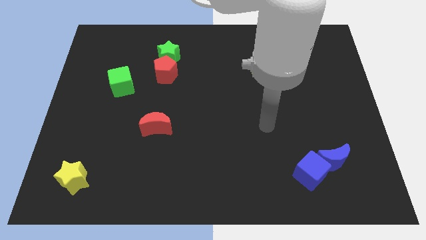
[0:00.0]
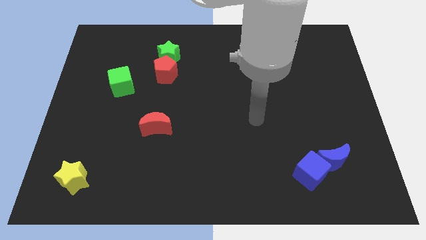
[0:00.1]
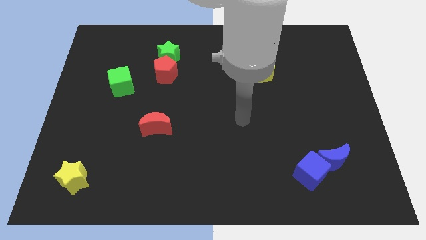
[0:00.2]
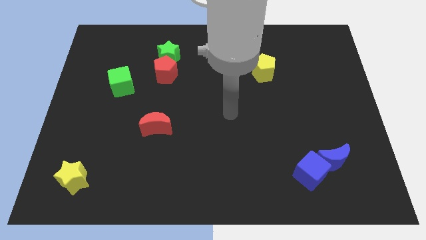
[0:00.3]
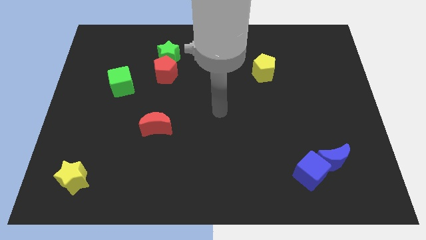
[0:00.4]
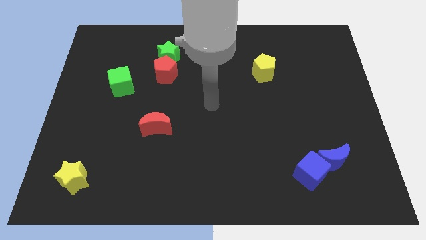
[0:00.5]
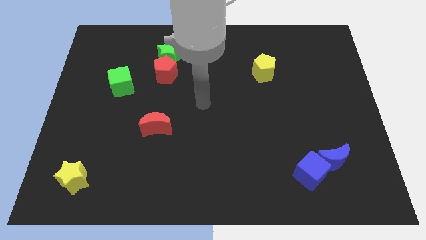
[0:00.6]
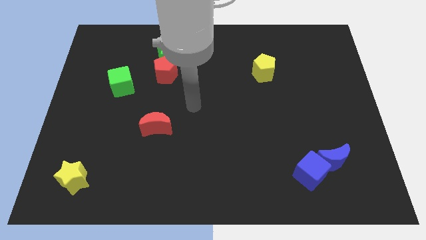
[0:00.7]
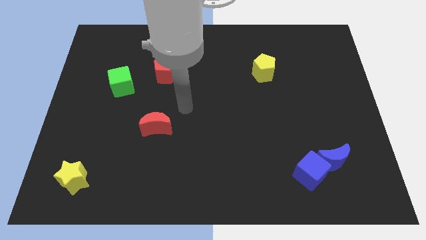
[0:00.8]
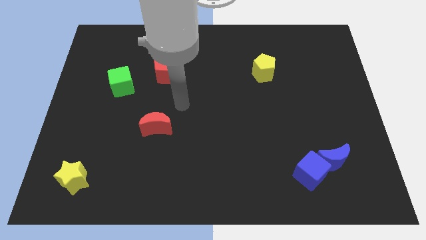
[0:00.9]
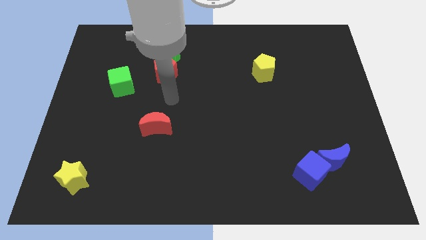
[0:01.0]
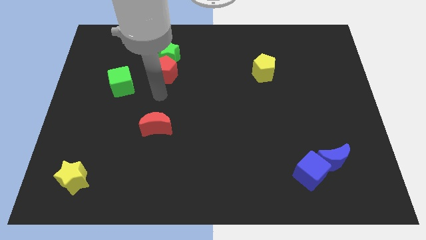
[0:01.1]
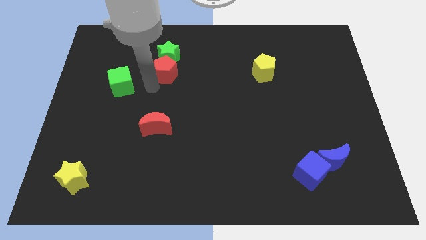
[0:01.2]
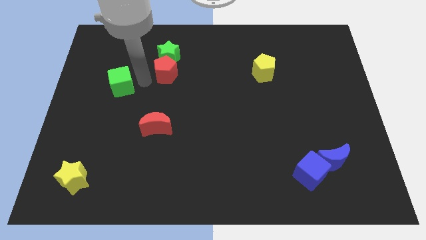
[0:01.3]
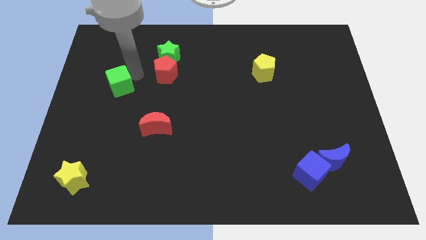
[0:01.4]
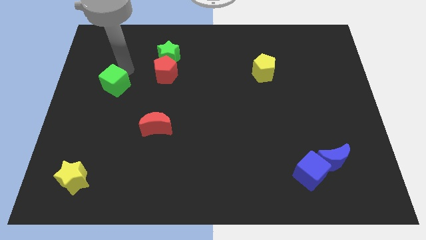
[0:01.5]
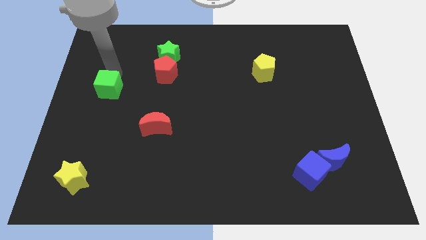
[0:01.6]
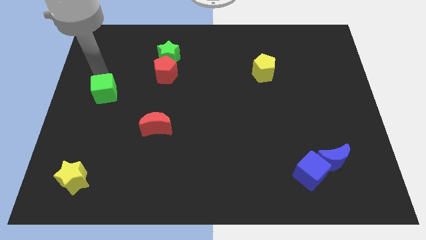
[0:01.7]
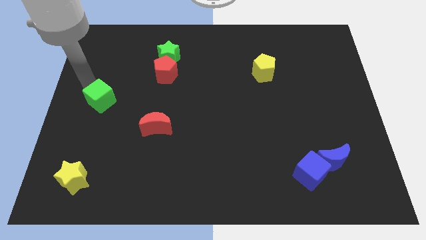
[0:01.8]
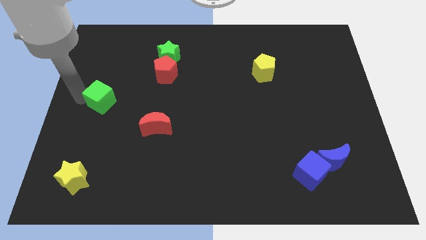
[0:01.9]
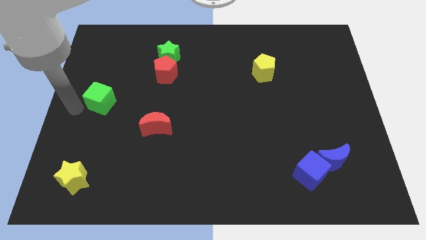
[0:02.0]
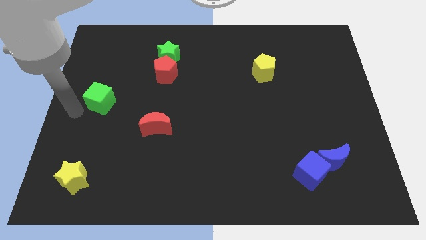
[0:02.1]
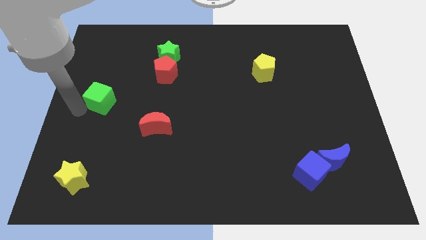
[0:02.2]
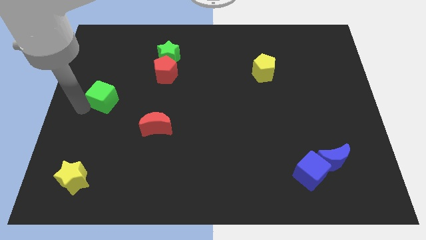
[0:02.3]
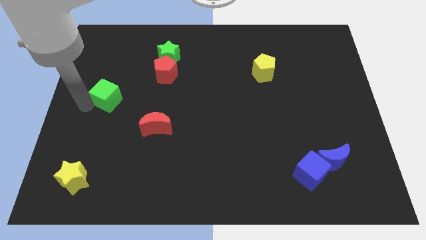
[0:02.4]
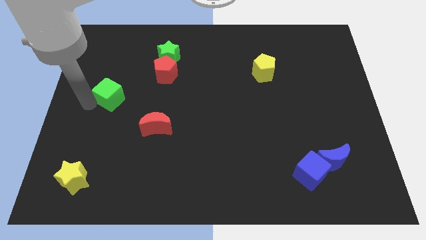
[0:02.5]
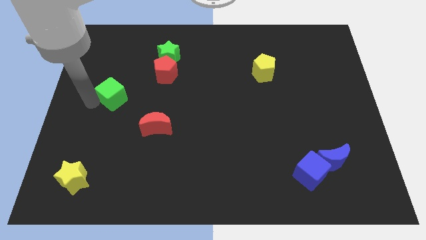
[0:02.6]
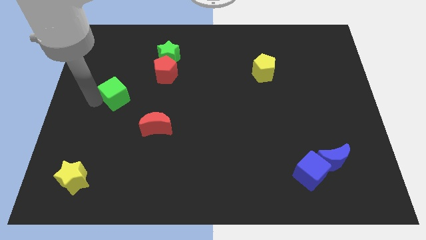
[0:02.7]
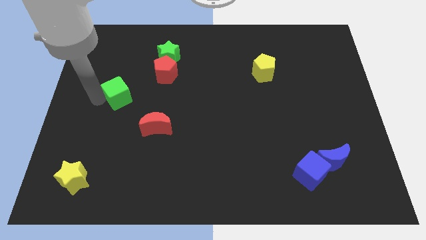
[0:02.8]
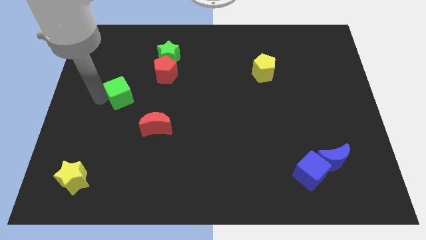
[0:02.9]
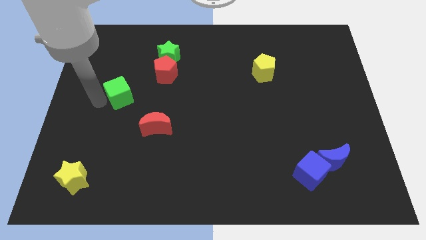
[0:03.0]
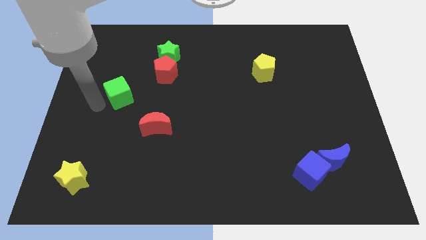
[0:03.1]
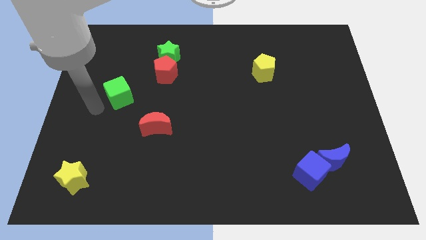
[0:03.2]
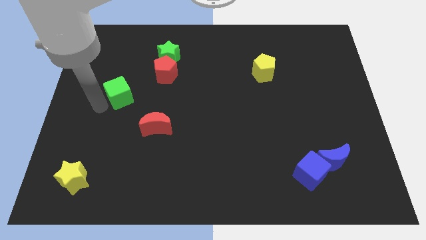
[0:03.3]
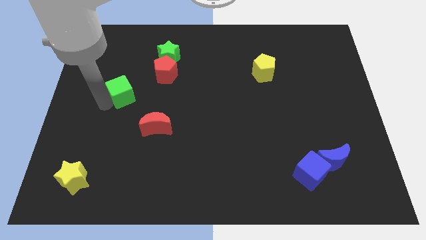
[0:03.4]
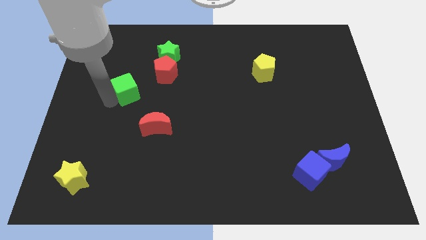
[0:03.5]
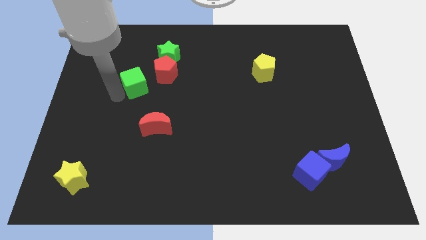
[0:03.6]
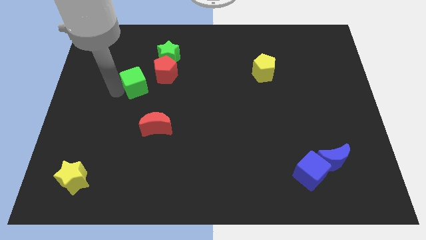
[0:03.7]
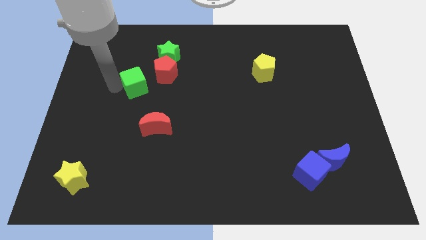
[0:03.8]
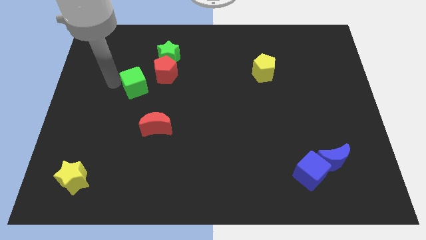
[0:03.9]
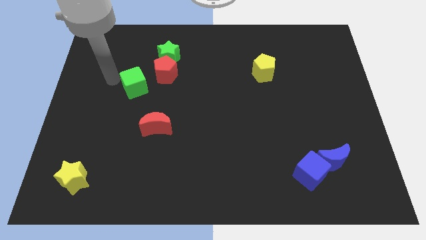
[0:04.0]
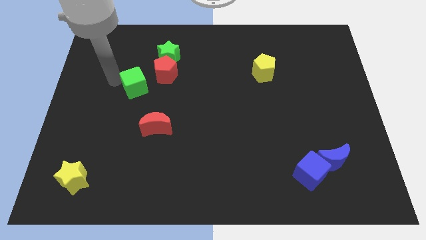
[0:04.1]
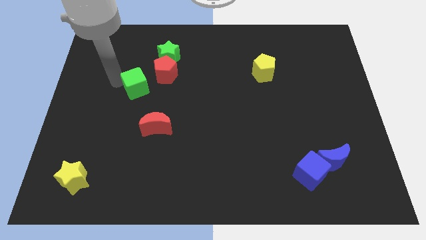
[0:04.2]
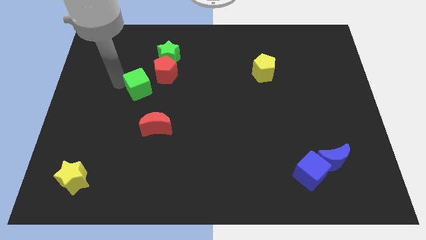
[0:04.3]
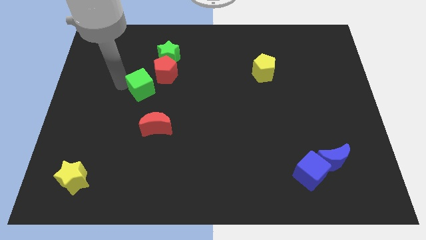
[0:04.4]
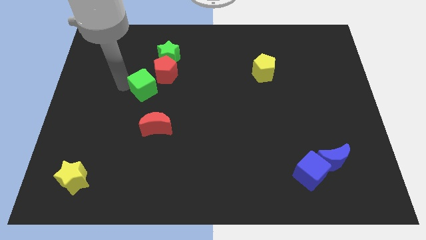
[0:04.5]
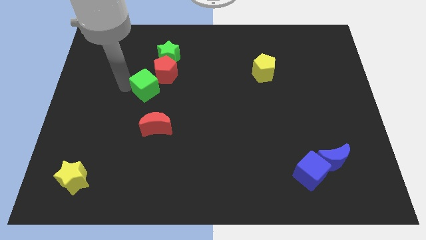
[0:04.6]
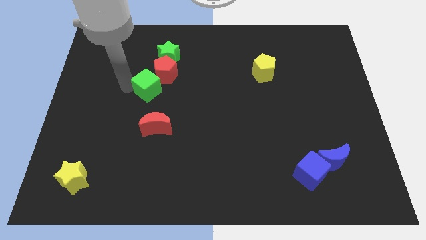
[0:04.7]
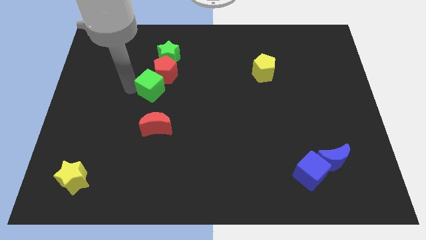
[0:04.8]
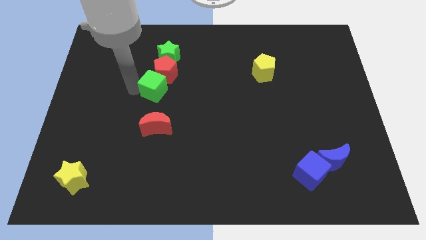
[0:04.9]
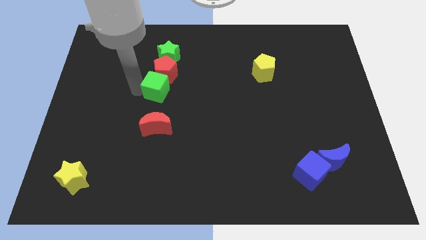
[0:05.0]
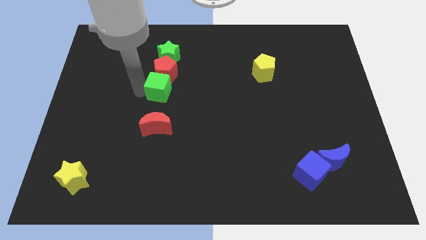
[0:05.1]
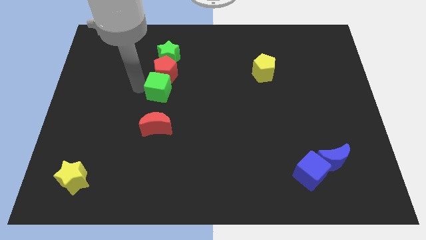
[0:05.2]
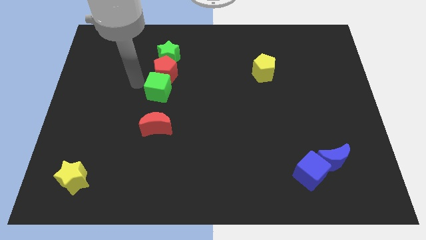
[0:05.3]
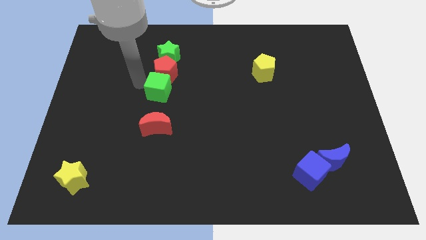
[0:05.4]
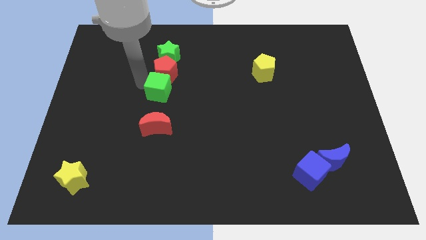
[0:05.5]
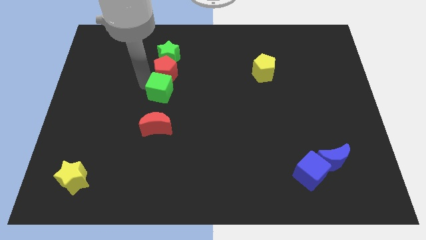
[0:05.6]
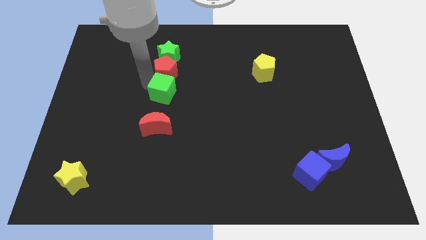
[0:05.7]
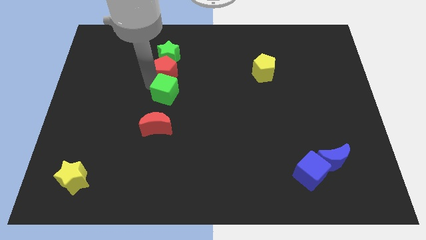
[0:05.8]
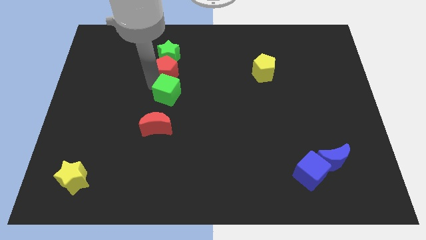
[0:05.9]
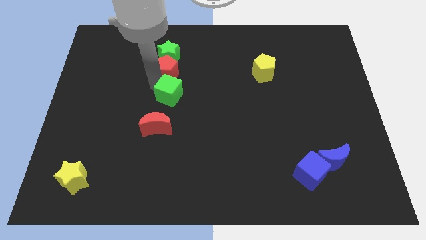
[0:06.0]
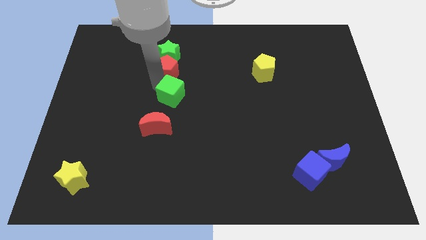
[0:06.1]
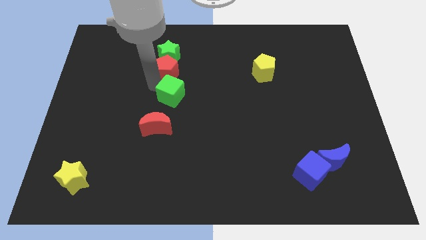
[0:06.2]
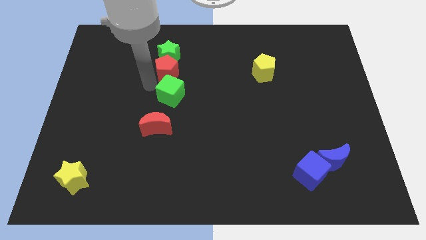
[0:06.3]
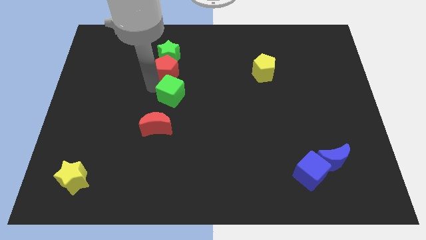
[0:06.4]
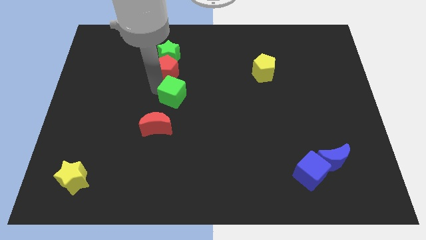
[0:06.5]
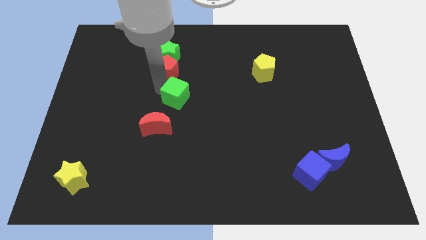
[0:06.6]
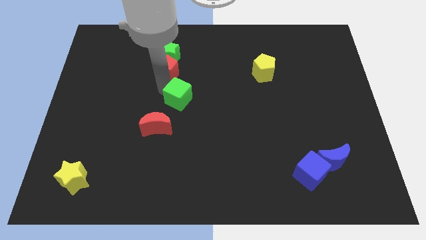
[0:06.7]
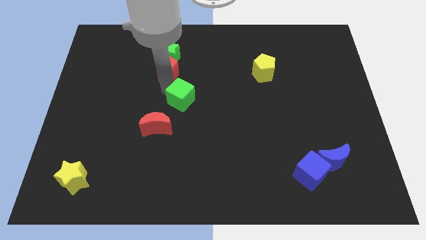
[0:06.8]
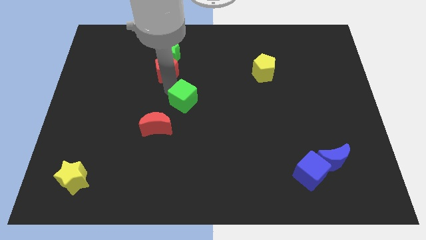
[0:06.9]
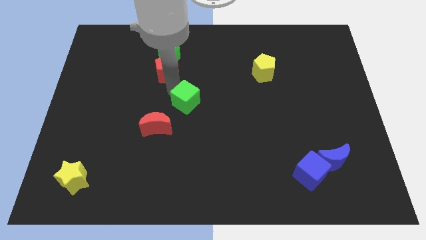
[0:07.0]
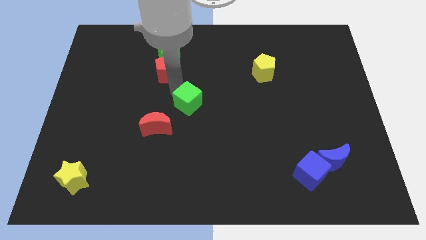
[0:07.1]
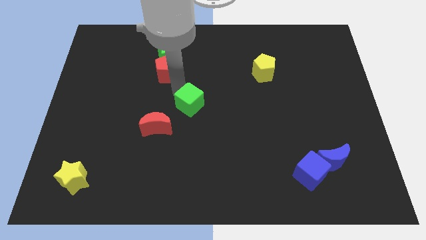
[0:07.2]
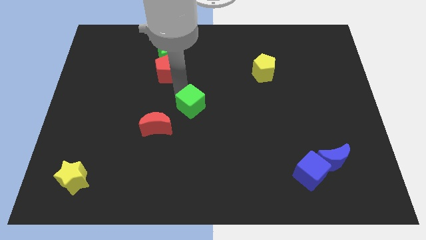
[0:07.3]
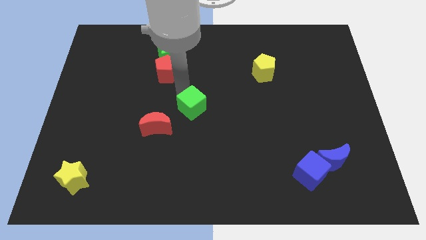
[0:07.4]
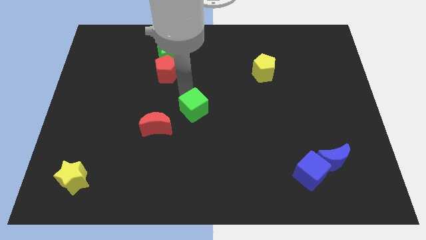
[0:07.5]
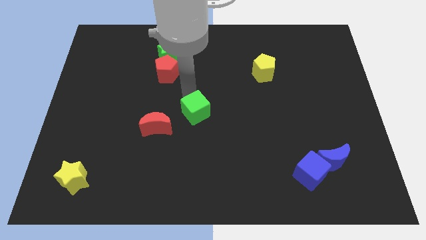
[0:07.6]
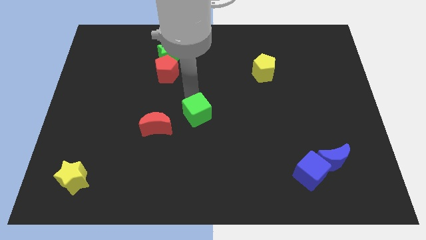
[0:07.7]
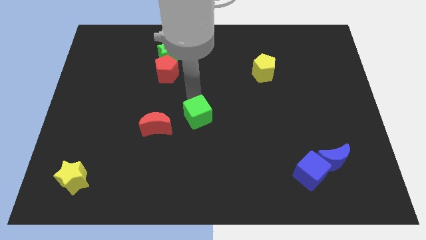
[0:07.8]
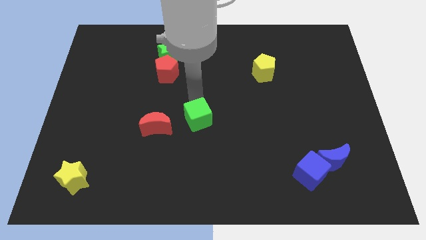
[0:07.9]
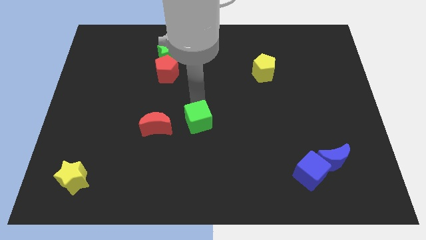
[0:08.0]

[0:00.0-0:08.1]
push the green cube downwards and right diagonally
